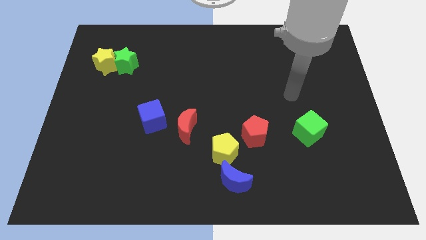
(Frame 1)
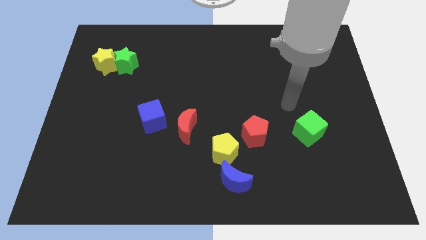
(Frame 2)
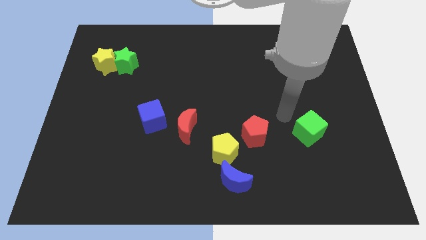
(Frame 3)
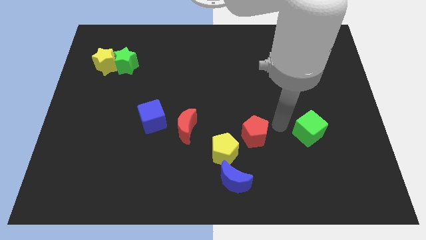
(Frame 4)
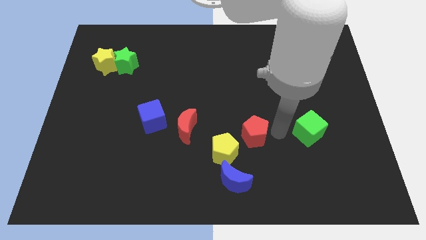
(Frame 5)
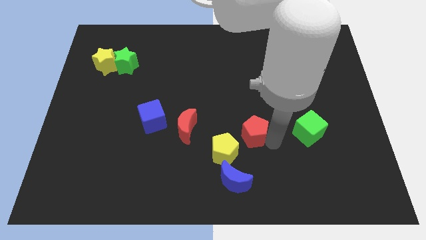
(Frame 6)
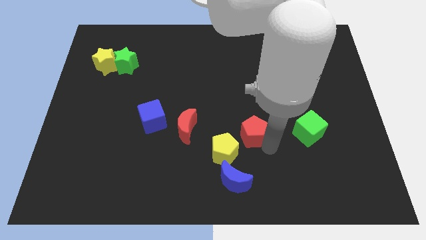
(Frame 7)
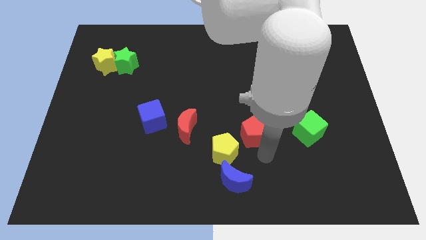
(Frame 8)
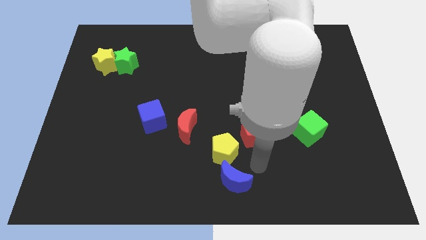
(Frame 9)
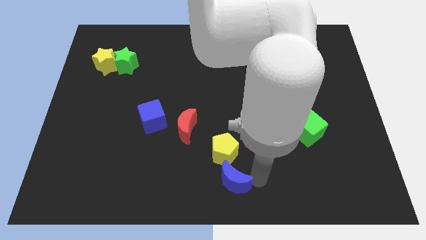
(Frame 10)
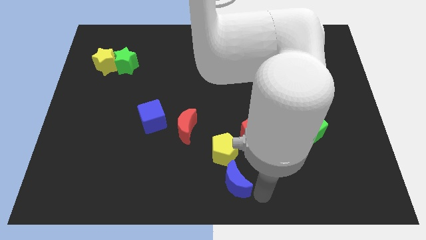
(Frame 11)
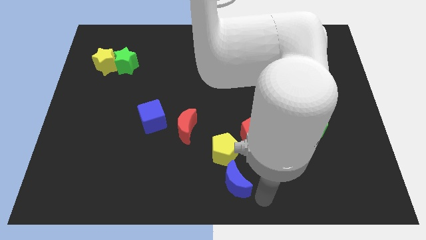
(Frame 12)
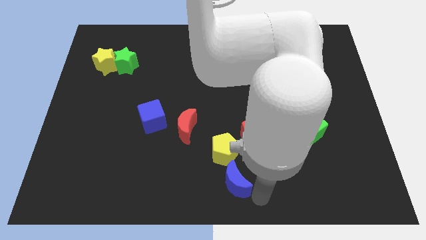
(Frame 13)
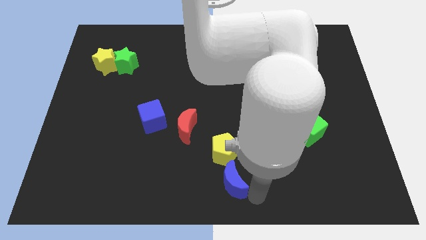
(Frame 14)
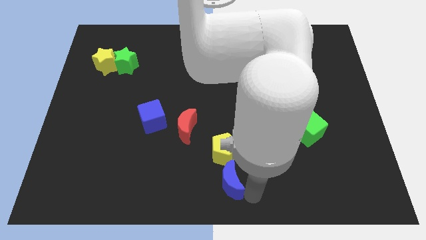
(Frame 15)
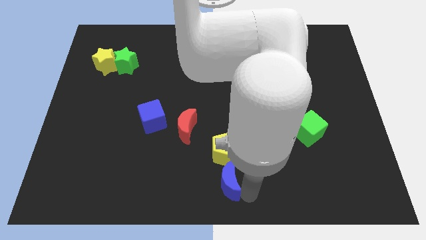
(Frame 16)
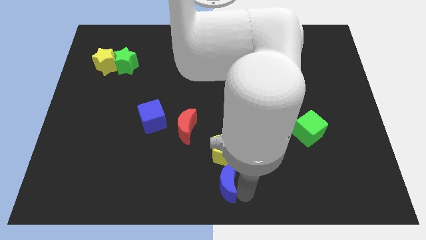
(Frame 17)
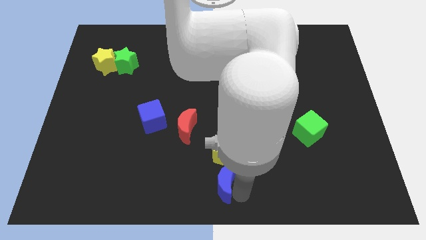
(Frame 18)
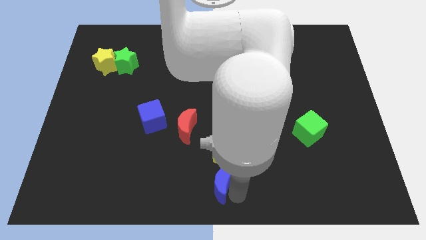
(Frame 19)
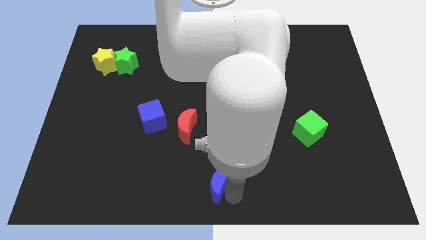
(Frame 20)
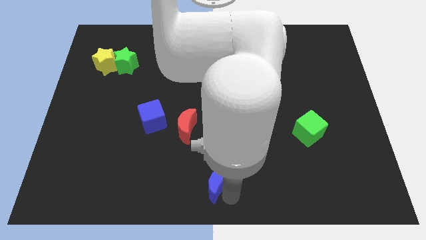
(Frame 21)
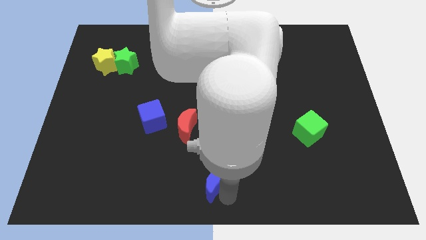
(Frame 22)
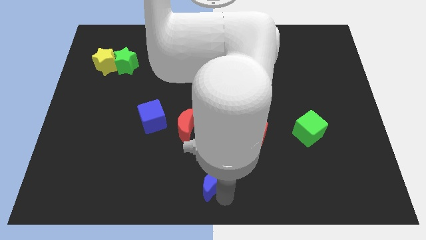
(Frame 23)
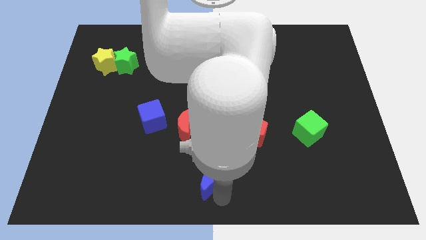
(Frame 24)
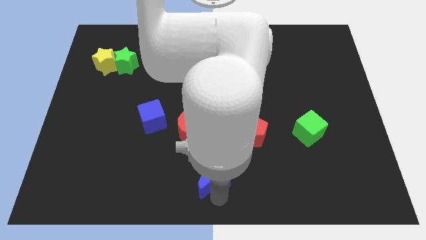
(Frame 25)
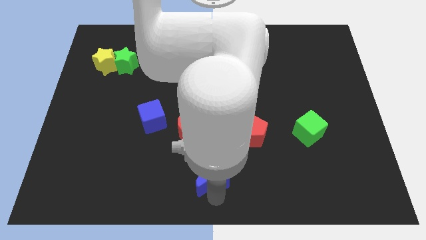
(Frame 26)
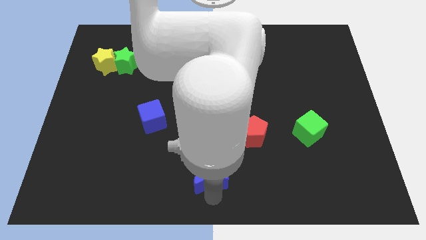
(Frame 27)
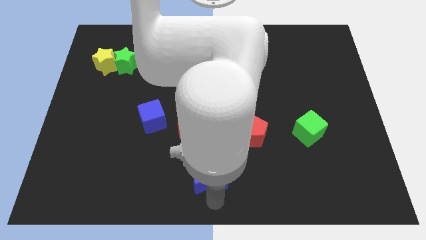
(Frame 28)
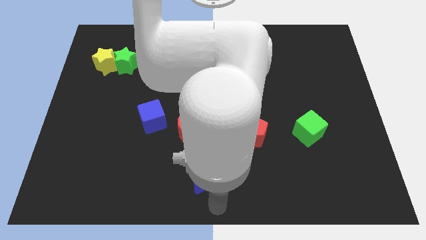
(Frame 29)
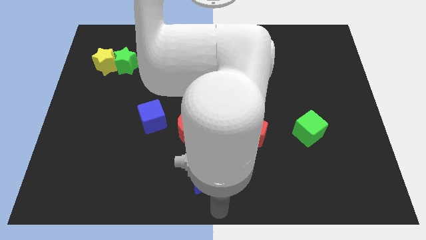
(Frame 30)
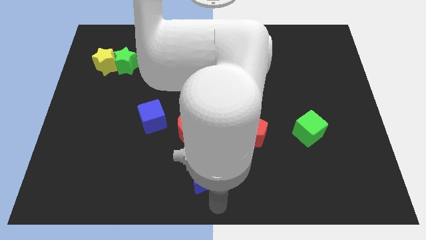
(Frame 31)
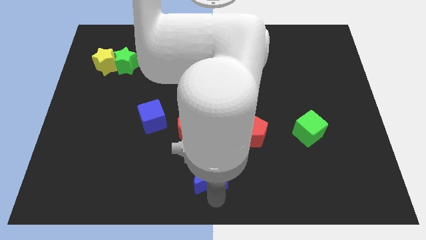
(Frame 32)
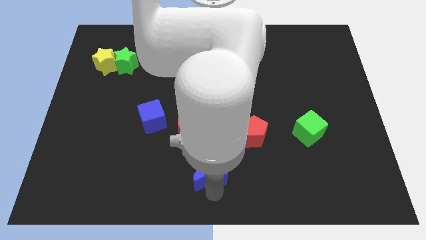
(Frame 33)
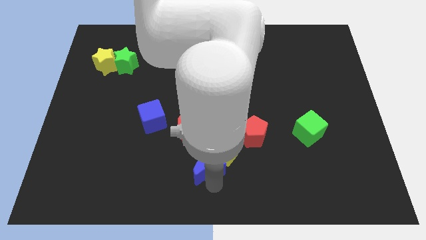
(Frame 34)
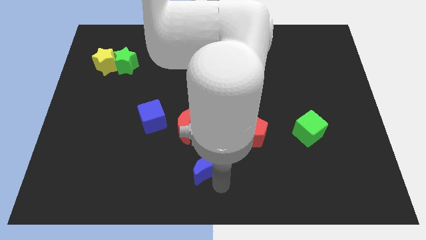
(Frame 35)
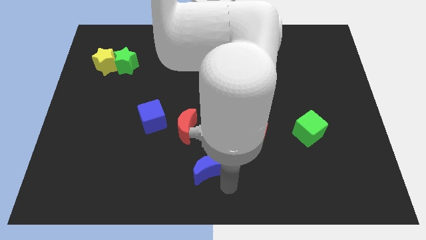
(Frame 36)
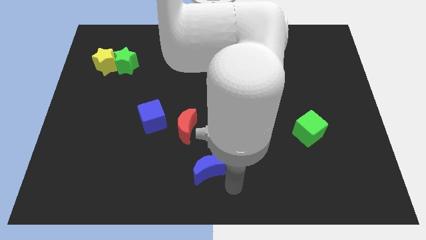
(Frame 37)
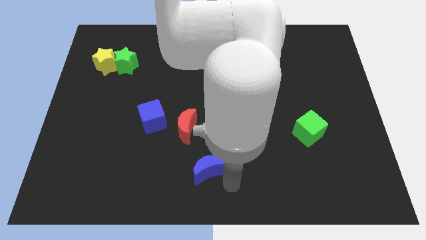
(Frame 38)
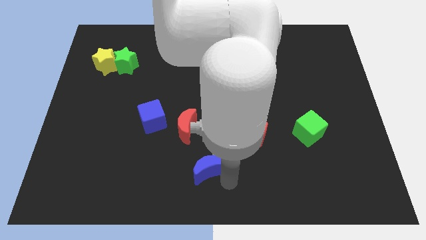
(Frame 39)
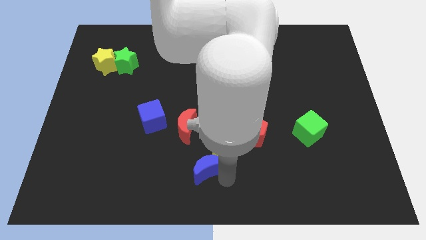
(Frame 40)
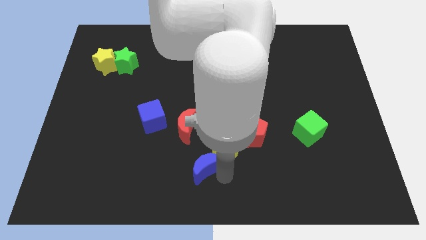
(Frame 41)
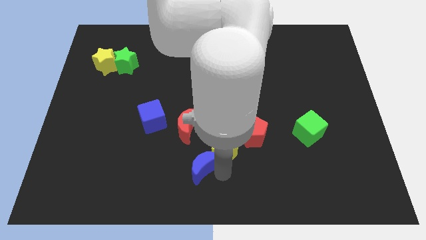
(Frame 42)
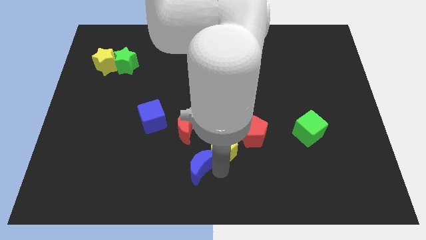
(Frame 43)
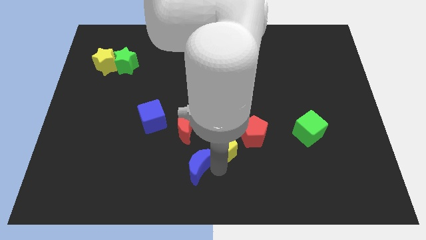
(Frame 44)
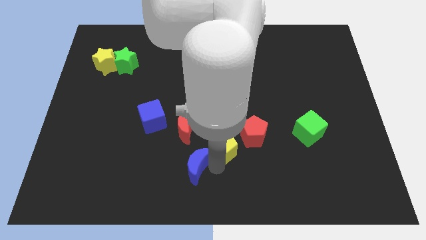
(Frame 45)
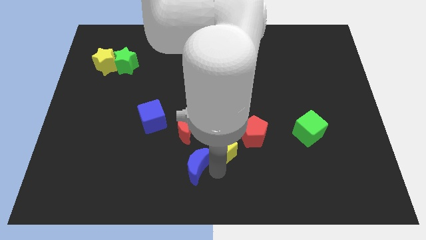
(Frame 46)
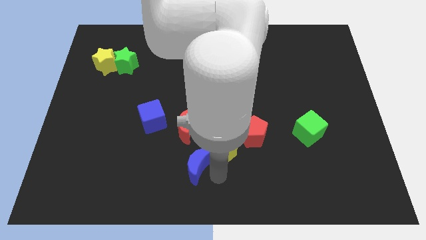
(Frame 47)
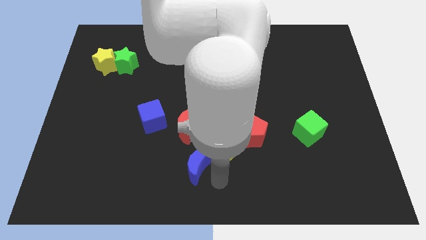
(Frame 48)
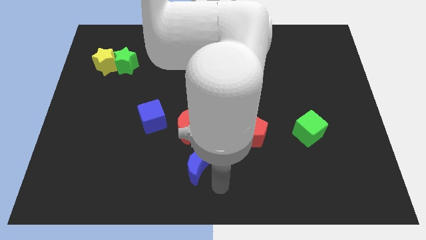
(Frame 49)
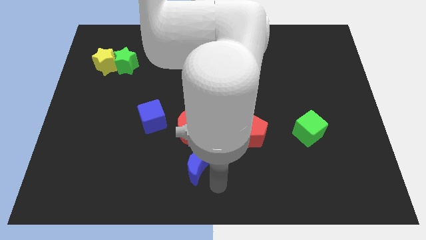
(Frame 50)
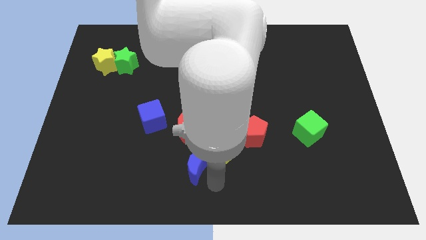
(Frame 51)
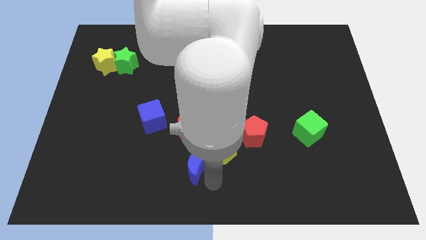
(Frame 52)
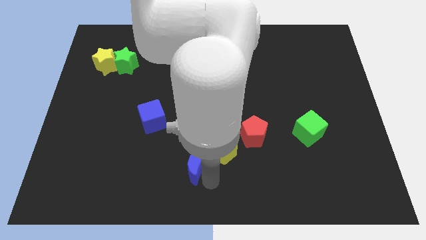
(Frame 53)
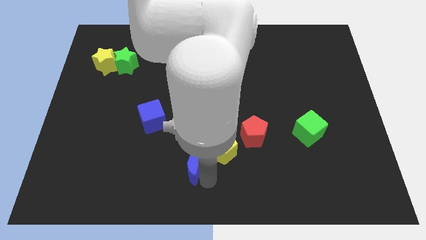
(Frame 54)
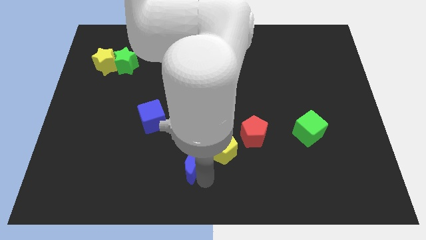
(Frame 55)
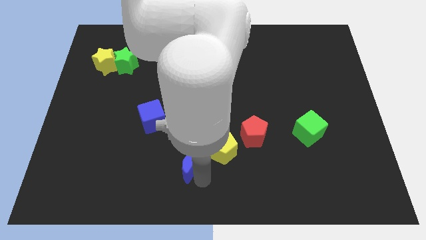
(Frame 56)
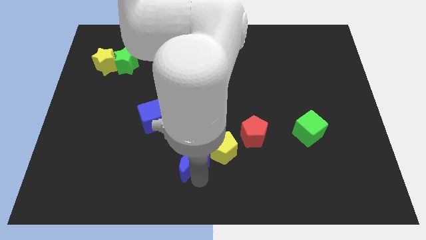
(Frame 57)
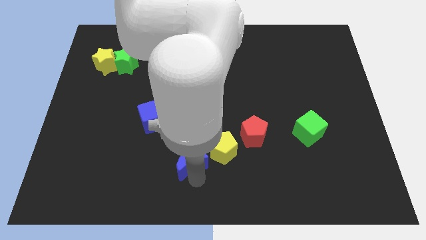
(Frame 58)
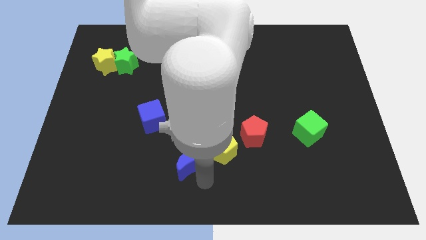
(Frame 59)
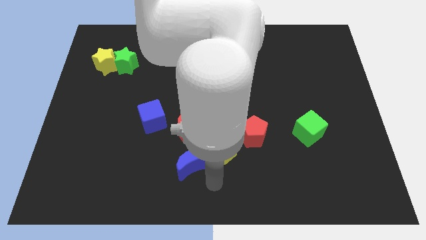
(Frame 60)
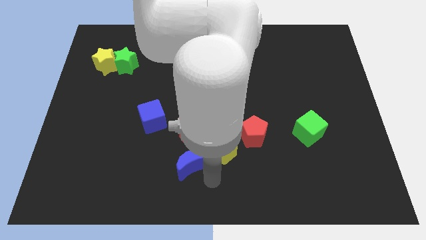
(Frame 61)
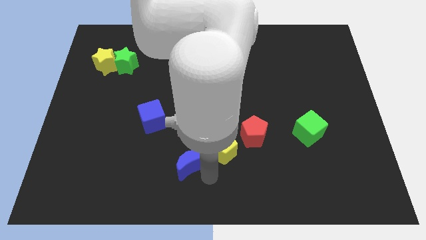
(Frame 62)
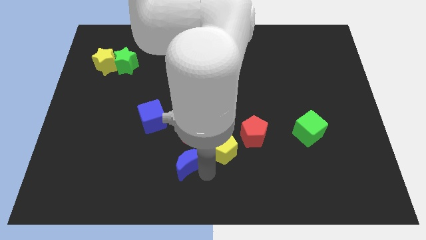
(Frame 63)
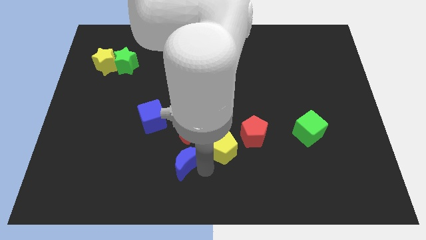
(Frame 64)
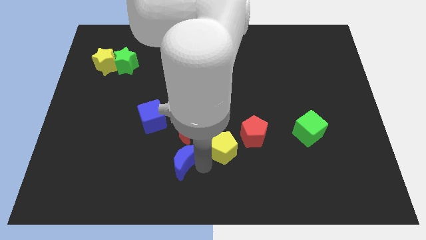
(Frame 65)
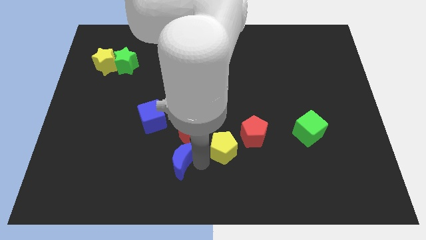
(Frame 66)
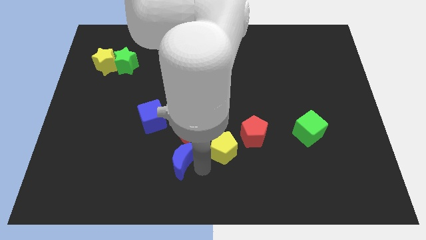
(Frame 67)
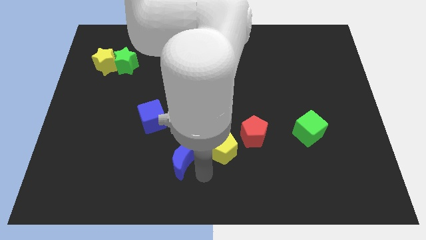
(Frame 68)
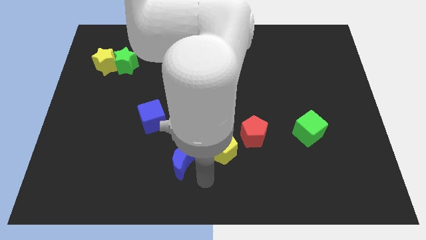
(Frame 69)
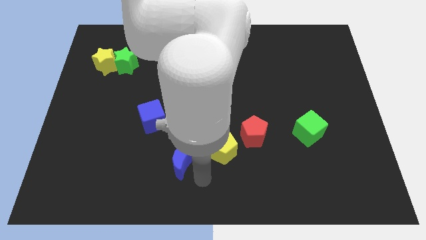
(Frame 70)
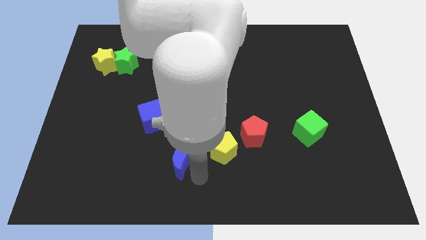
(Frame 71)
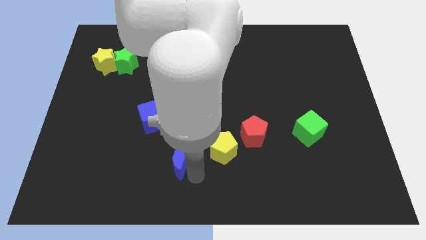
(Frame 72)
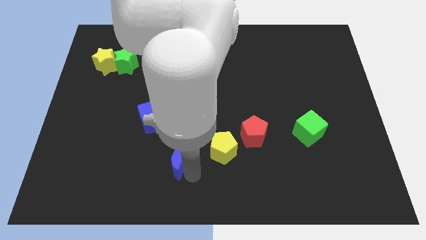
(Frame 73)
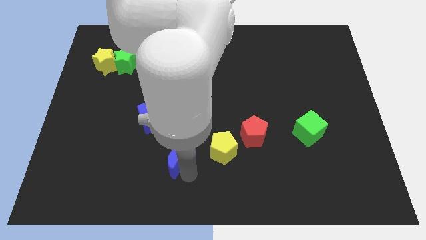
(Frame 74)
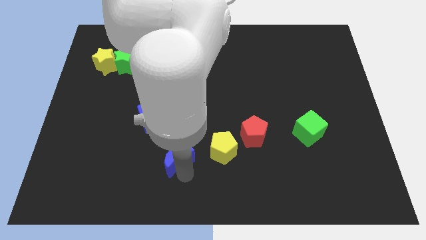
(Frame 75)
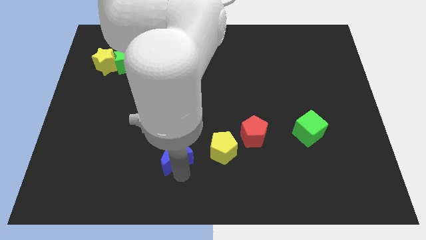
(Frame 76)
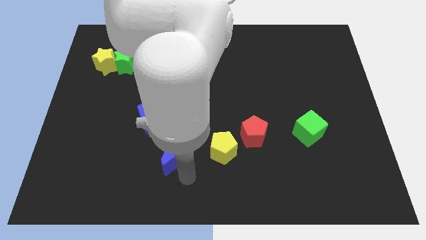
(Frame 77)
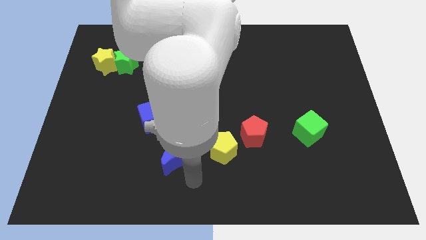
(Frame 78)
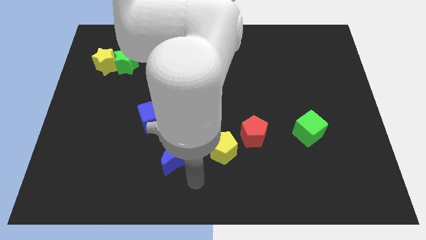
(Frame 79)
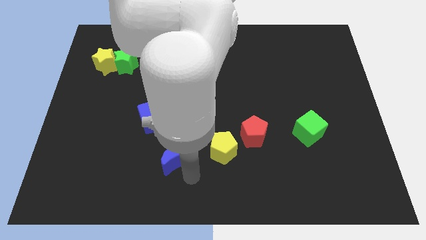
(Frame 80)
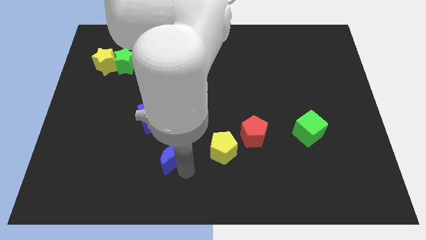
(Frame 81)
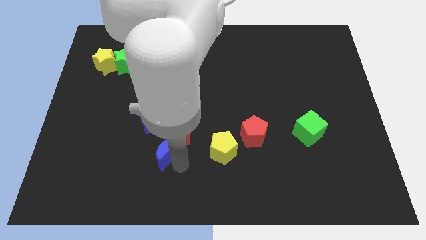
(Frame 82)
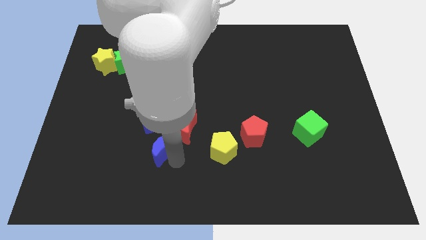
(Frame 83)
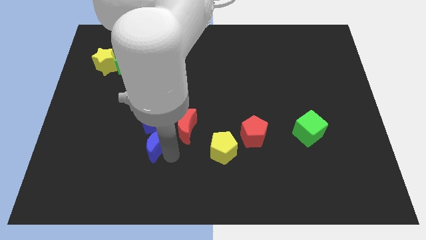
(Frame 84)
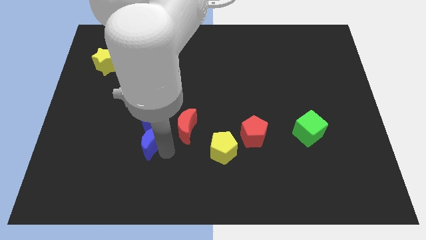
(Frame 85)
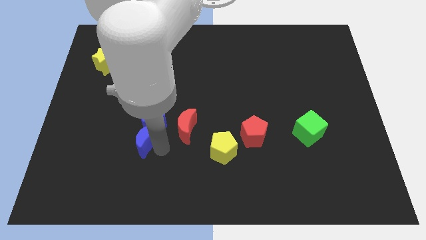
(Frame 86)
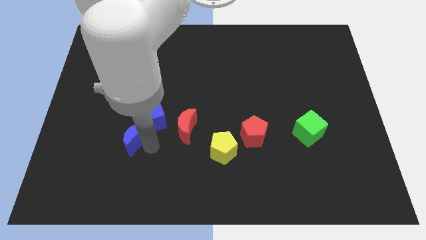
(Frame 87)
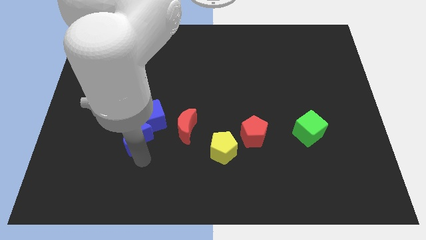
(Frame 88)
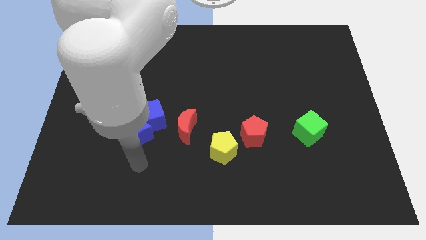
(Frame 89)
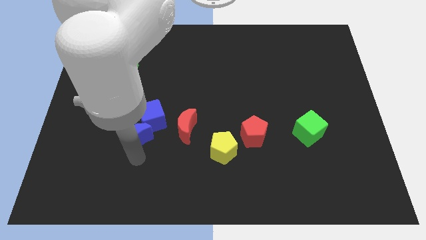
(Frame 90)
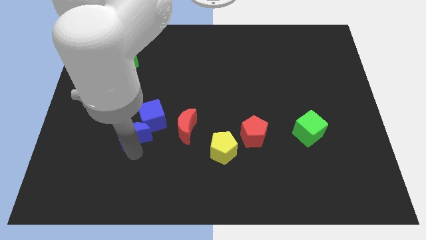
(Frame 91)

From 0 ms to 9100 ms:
push the blue moon diagonally up and to the left
